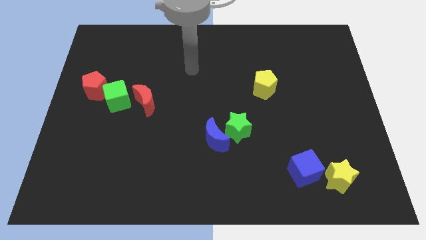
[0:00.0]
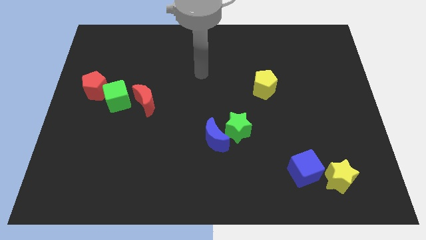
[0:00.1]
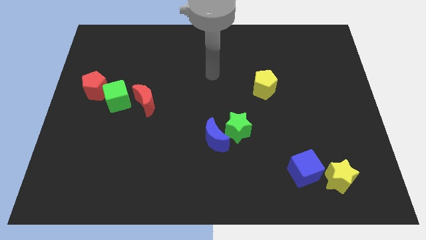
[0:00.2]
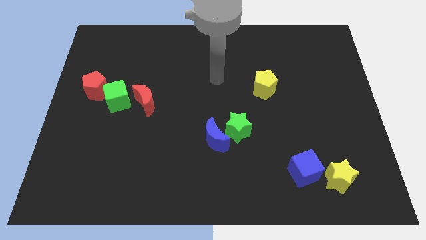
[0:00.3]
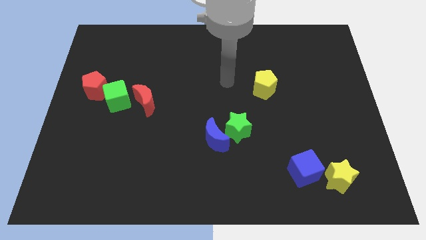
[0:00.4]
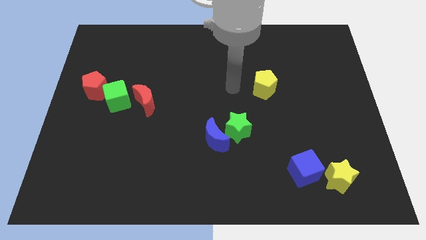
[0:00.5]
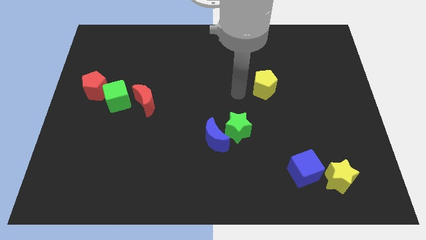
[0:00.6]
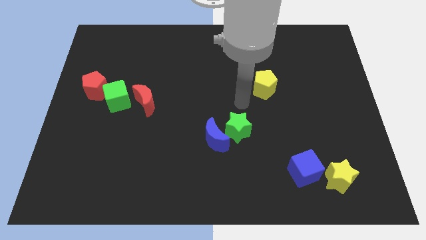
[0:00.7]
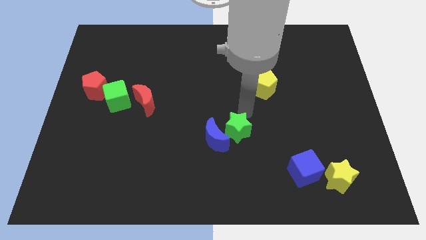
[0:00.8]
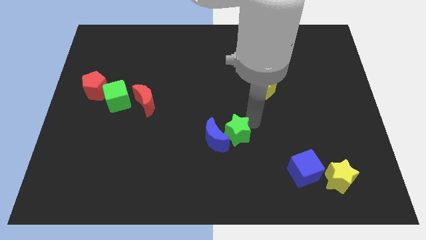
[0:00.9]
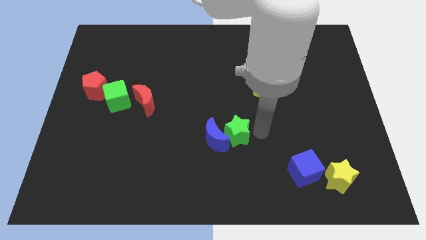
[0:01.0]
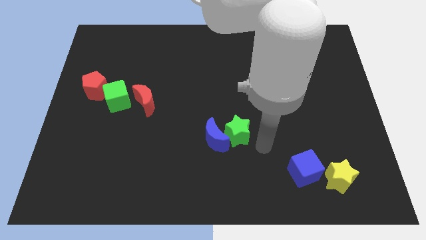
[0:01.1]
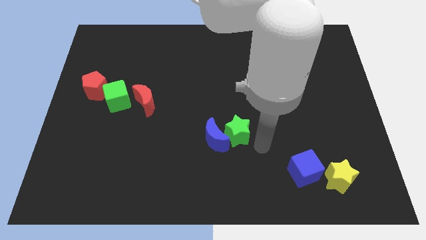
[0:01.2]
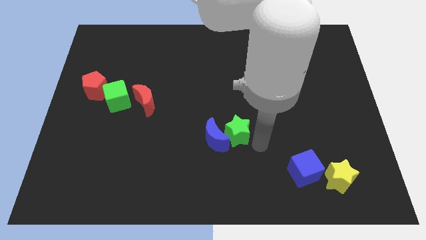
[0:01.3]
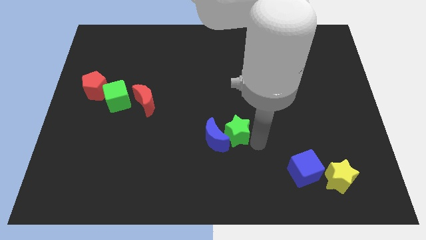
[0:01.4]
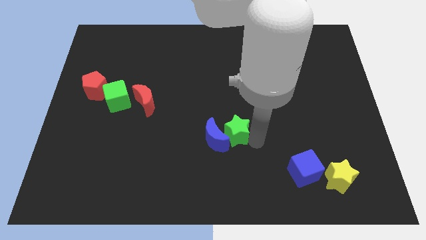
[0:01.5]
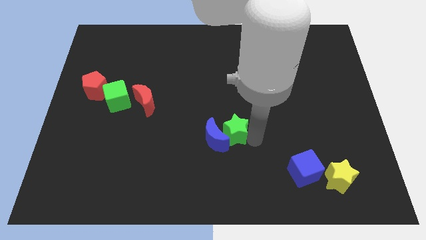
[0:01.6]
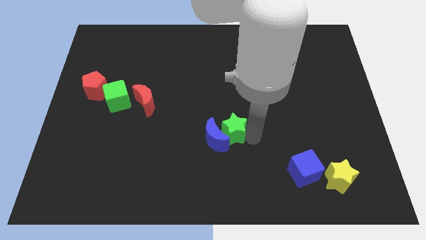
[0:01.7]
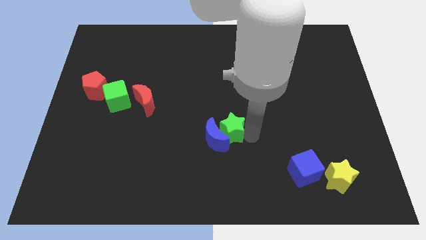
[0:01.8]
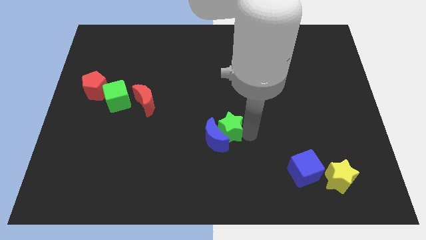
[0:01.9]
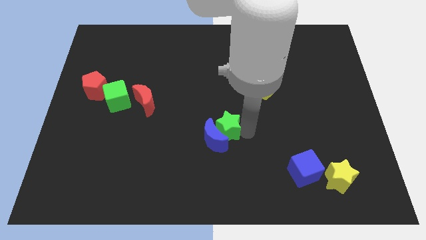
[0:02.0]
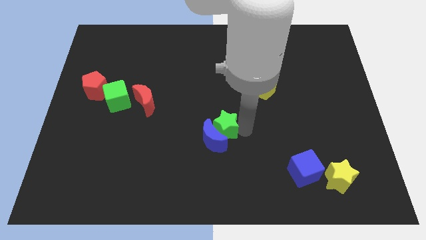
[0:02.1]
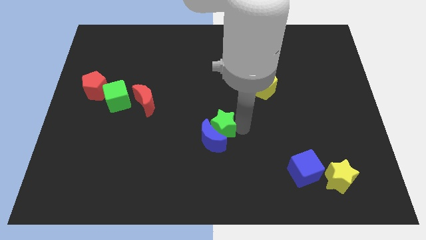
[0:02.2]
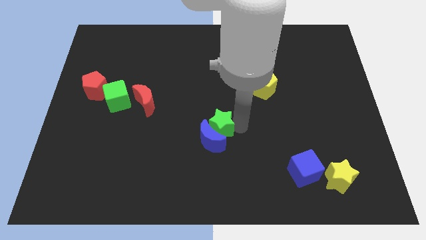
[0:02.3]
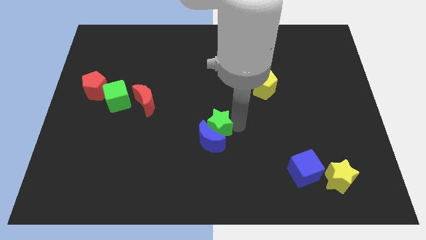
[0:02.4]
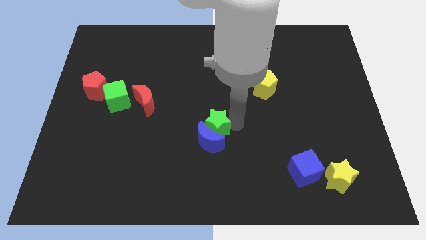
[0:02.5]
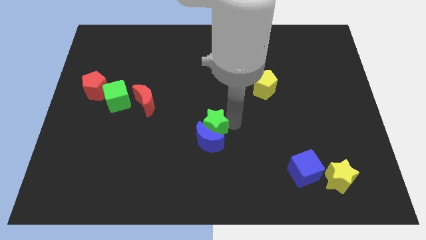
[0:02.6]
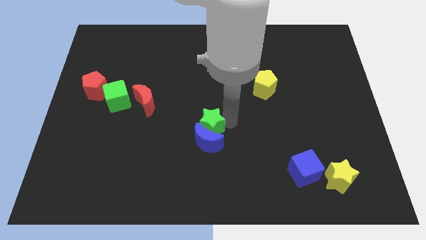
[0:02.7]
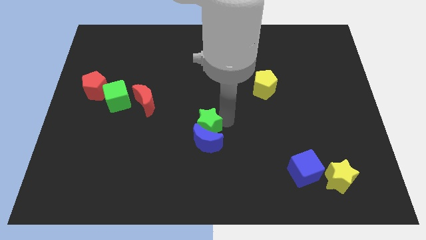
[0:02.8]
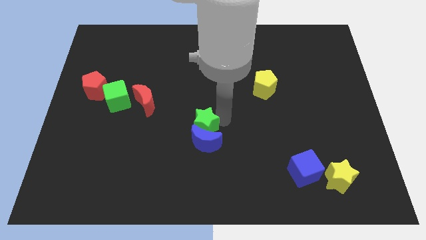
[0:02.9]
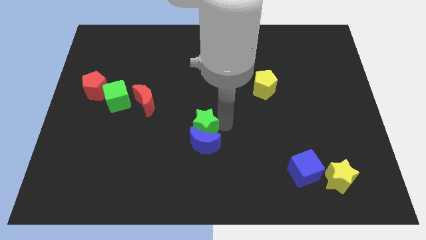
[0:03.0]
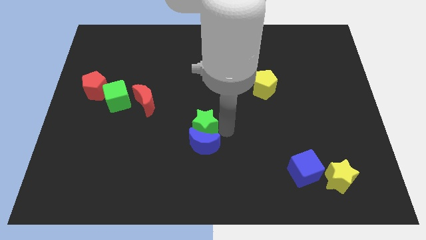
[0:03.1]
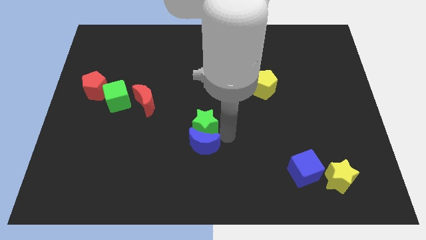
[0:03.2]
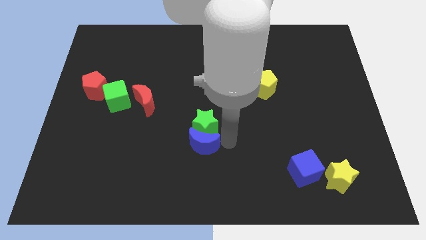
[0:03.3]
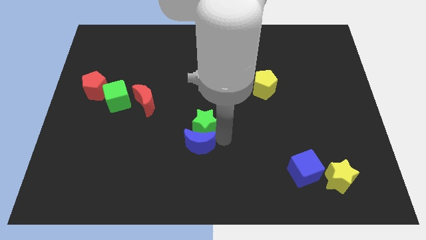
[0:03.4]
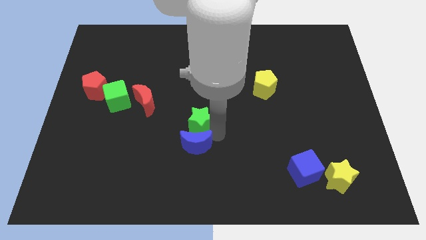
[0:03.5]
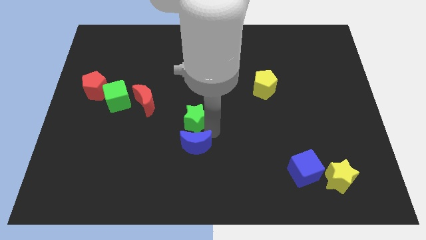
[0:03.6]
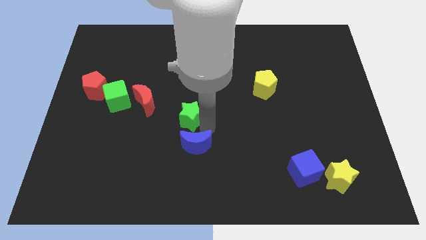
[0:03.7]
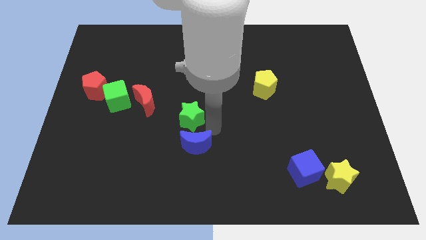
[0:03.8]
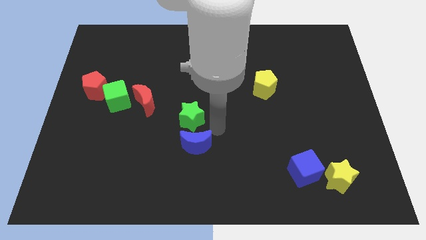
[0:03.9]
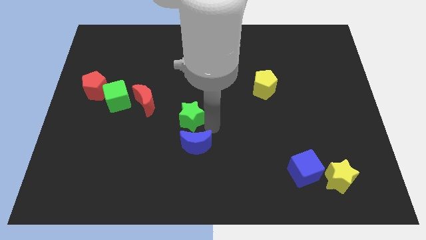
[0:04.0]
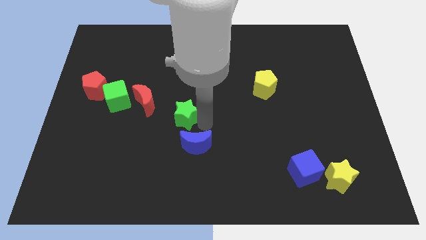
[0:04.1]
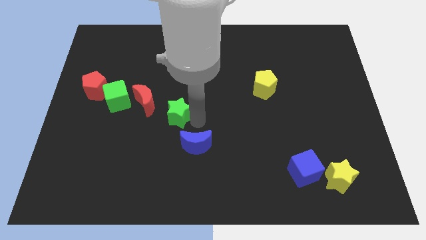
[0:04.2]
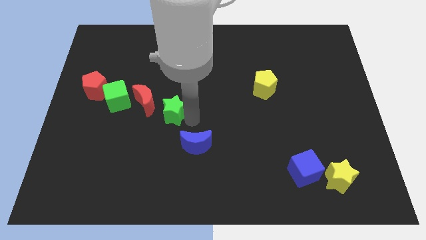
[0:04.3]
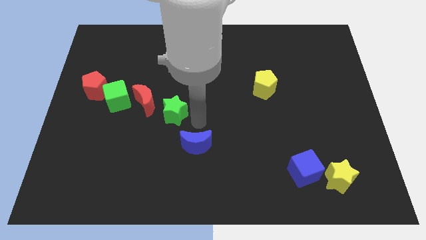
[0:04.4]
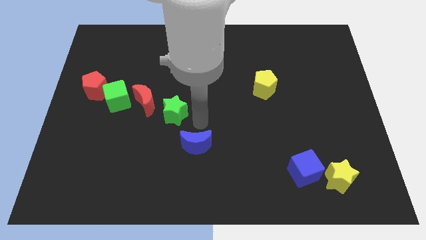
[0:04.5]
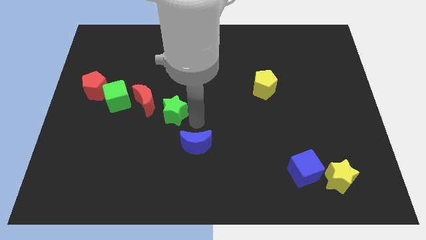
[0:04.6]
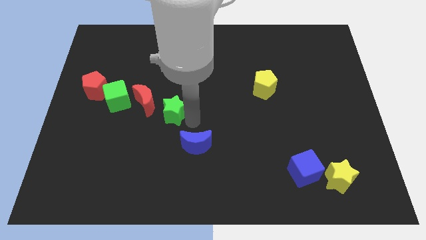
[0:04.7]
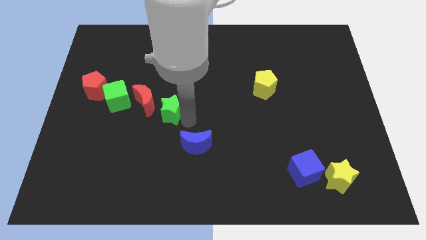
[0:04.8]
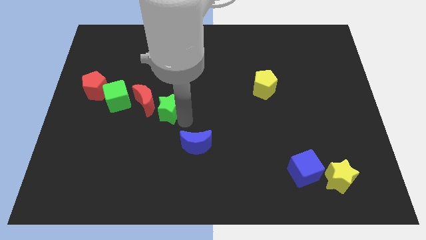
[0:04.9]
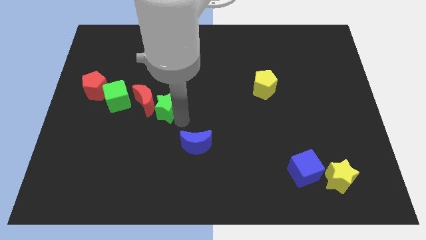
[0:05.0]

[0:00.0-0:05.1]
put the green star next to the red moon

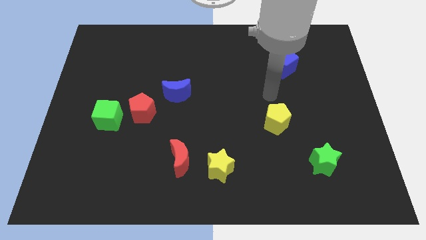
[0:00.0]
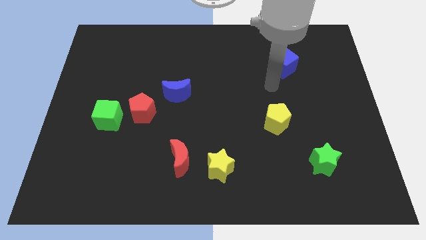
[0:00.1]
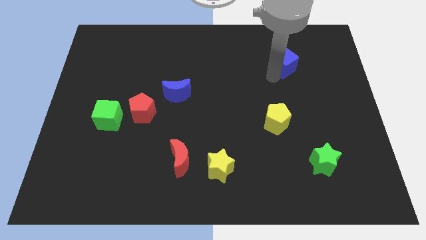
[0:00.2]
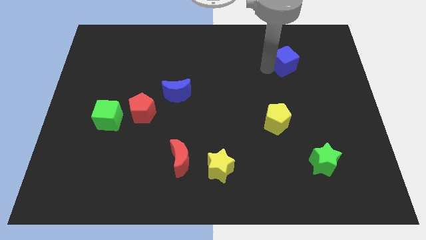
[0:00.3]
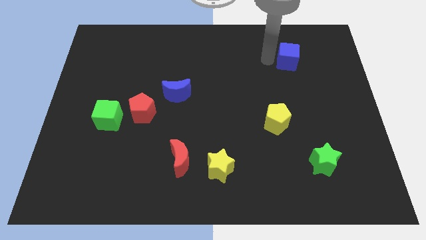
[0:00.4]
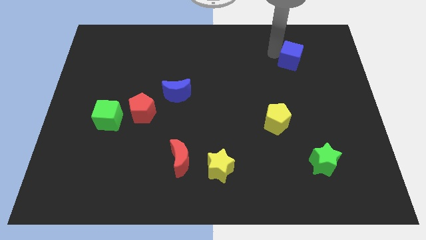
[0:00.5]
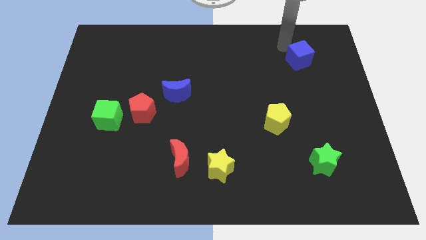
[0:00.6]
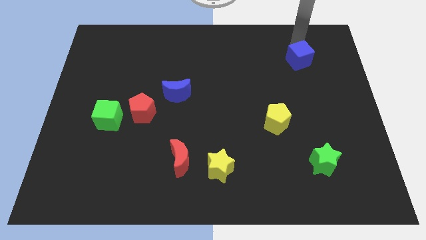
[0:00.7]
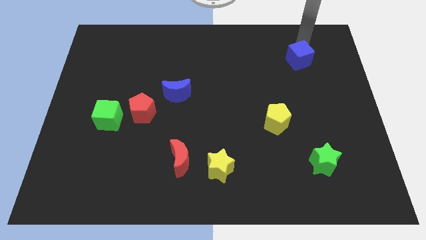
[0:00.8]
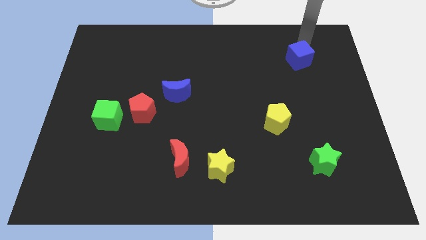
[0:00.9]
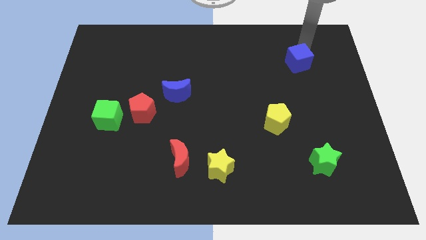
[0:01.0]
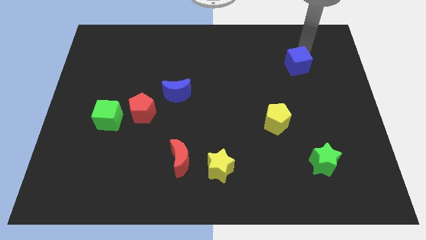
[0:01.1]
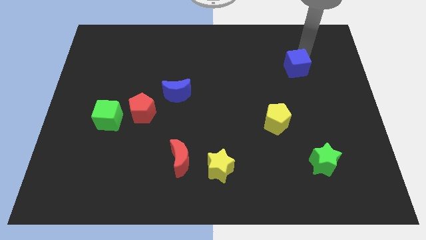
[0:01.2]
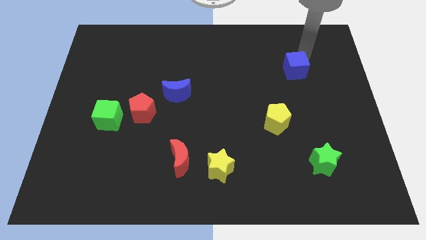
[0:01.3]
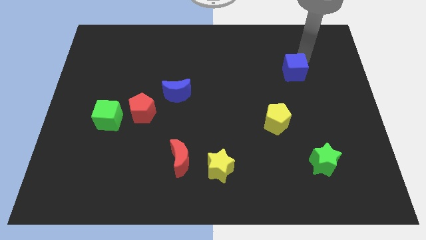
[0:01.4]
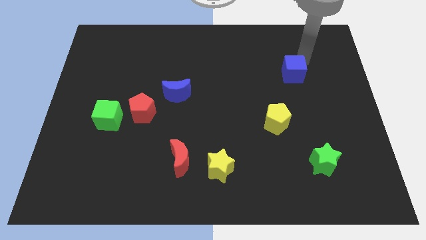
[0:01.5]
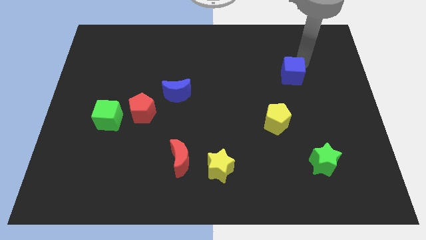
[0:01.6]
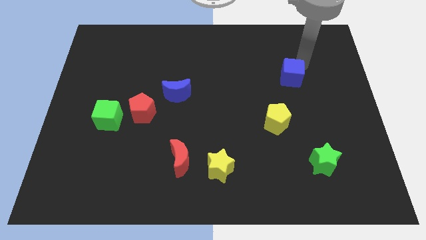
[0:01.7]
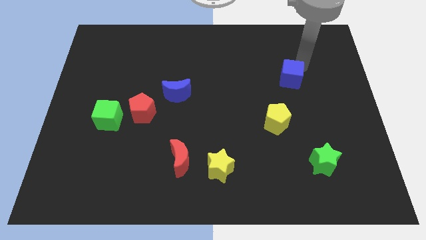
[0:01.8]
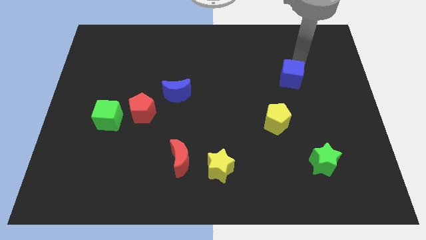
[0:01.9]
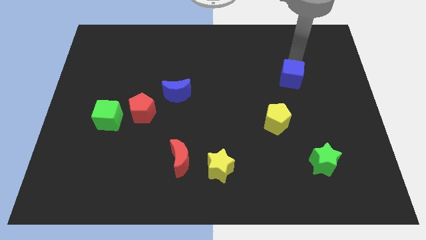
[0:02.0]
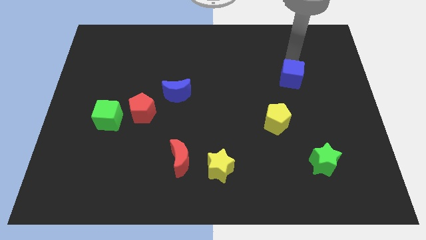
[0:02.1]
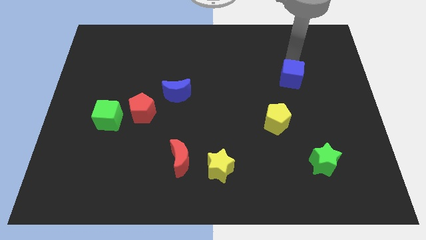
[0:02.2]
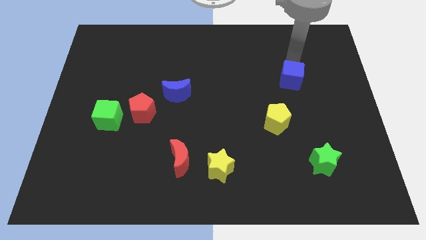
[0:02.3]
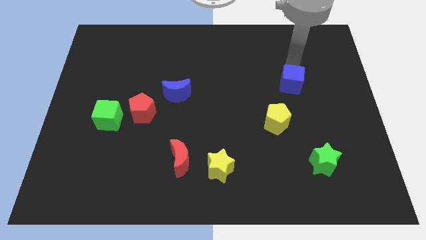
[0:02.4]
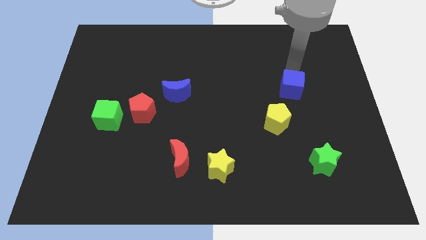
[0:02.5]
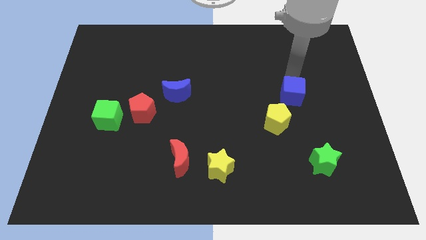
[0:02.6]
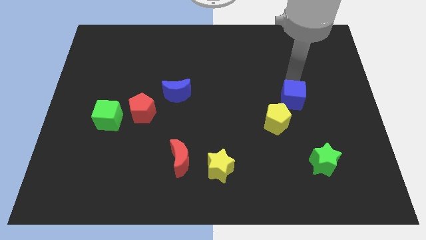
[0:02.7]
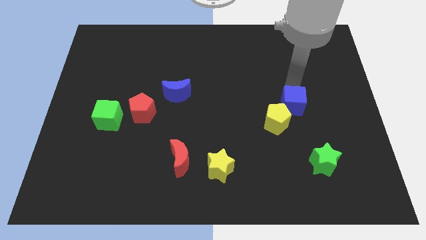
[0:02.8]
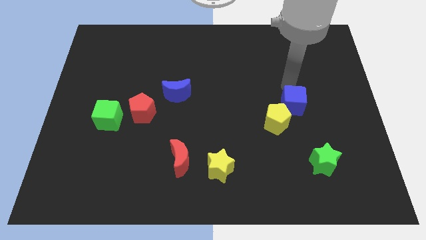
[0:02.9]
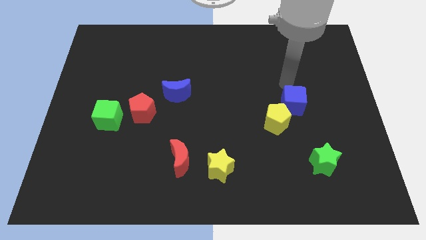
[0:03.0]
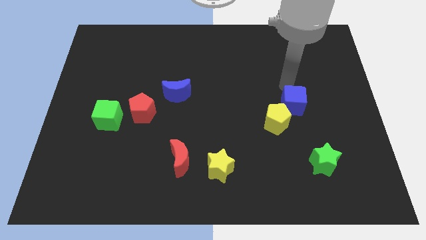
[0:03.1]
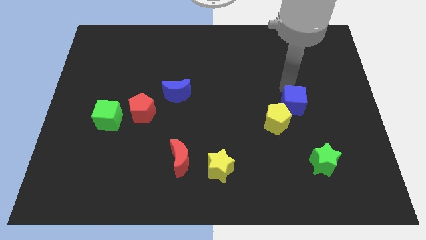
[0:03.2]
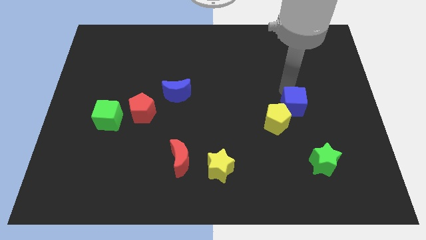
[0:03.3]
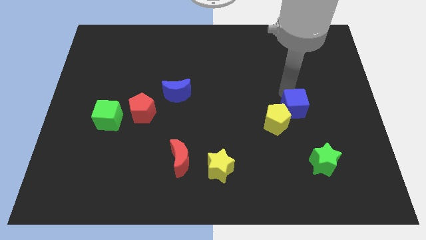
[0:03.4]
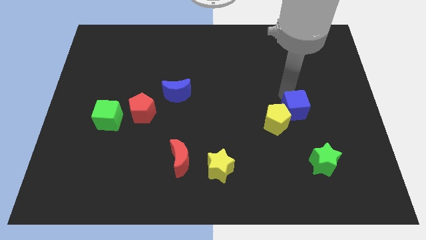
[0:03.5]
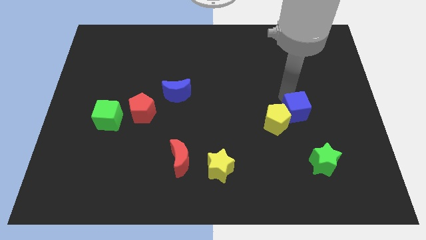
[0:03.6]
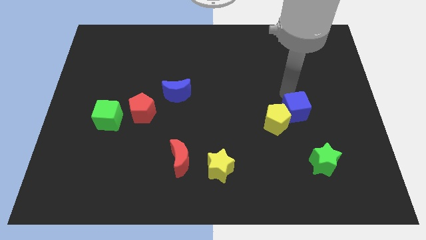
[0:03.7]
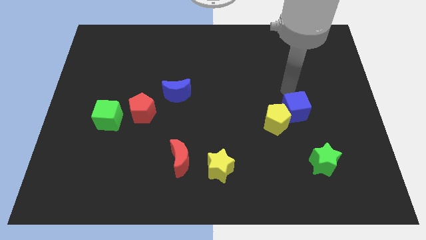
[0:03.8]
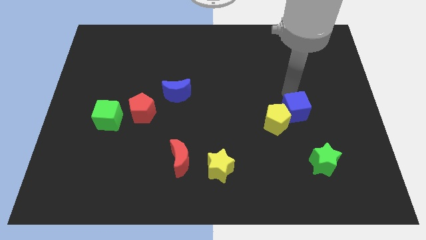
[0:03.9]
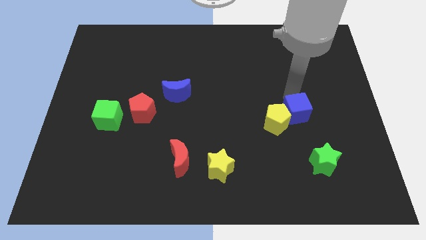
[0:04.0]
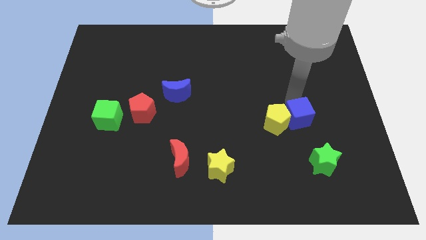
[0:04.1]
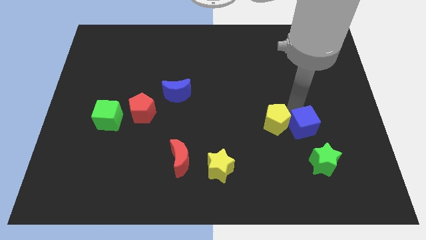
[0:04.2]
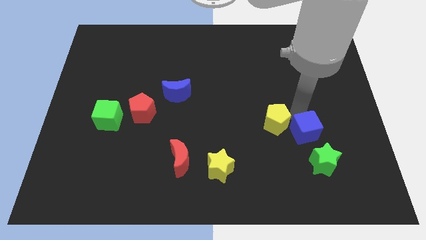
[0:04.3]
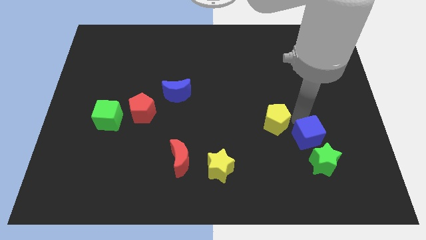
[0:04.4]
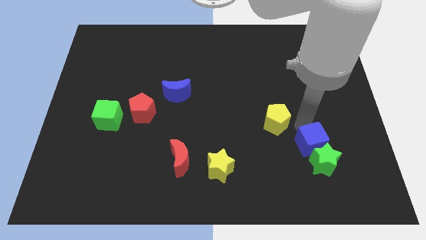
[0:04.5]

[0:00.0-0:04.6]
put the blue cube to the green star
